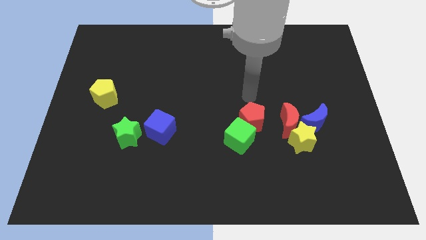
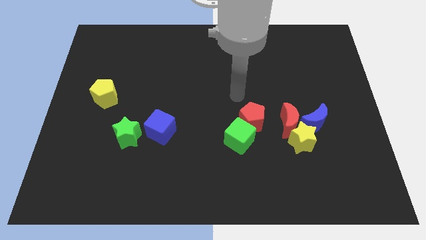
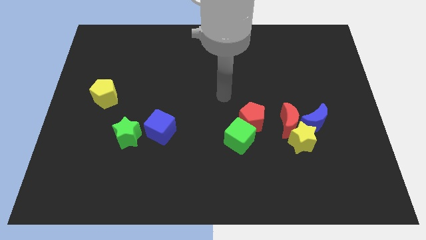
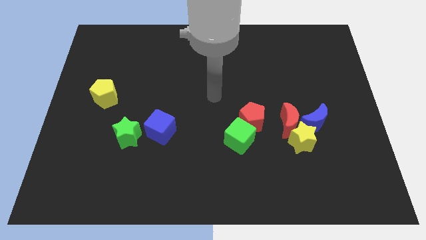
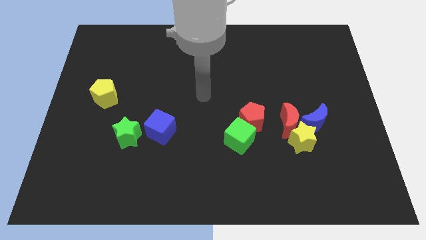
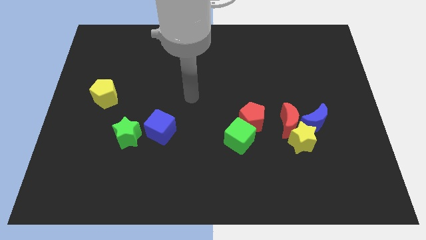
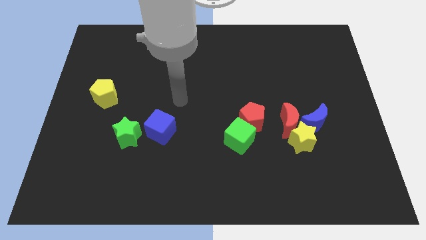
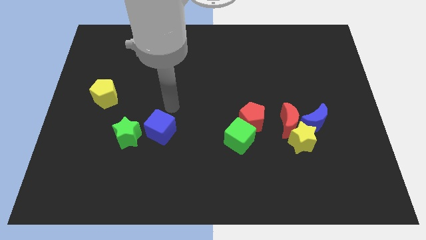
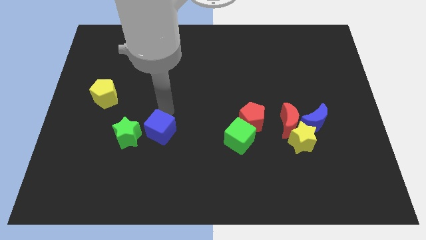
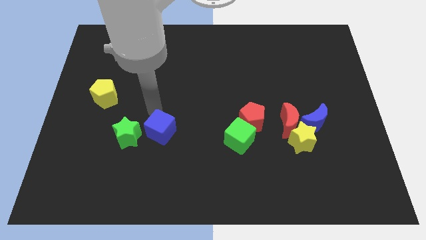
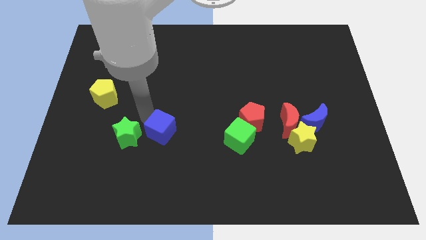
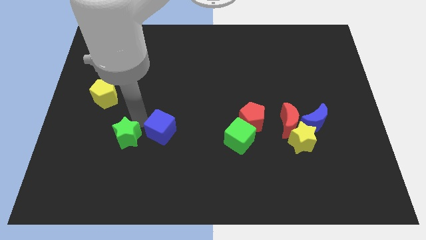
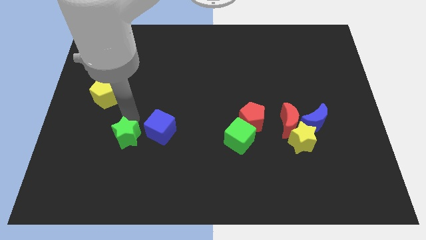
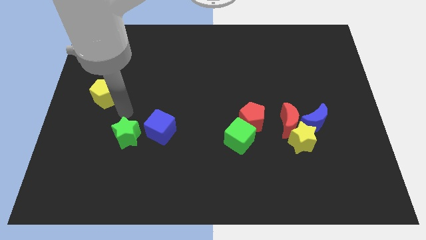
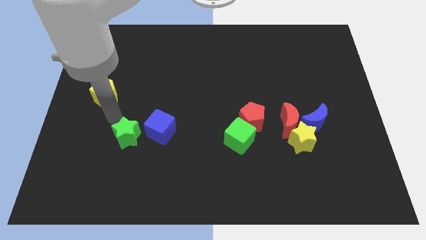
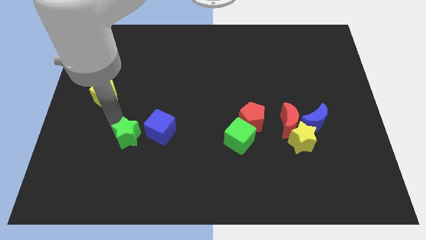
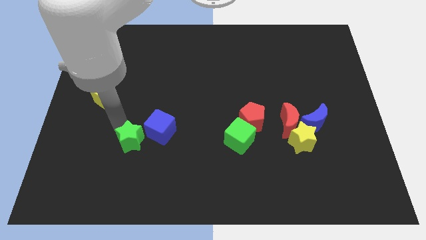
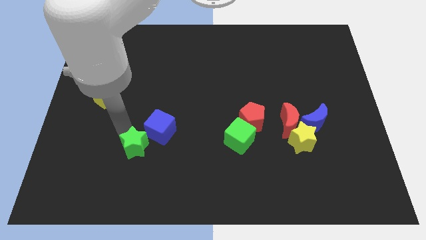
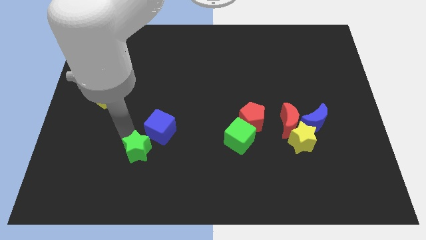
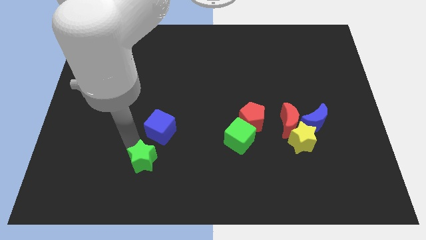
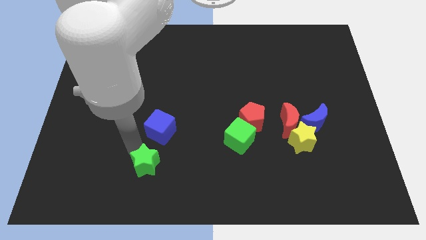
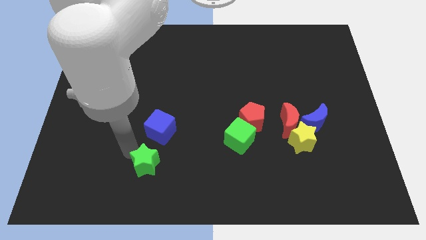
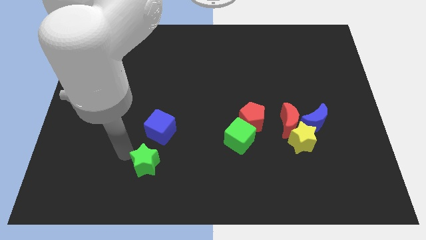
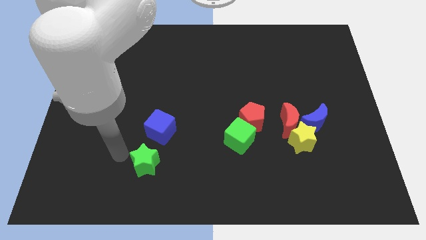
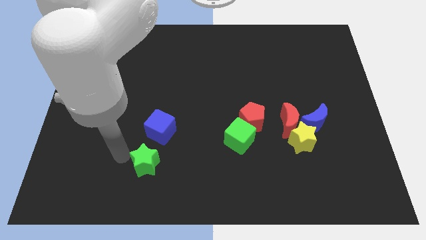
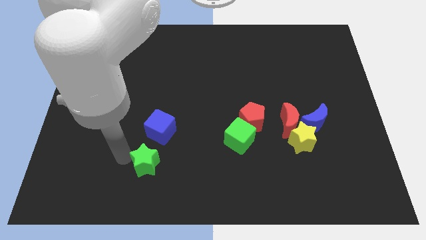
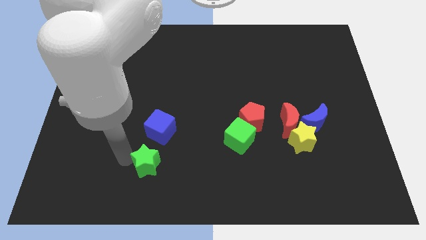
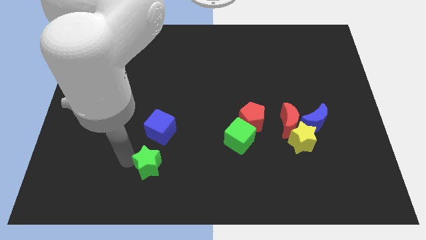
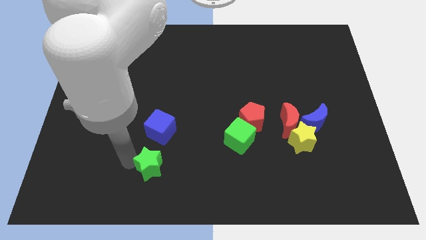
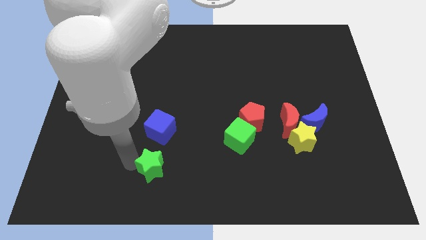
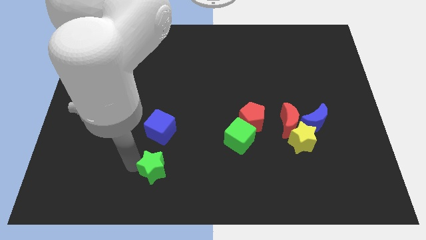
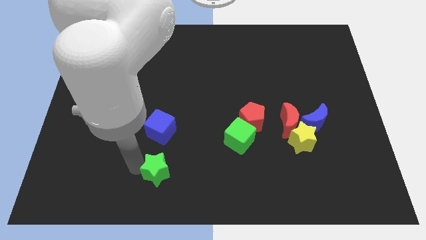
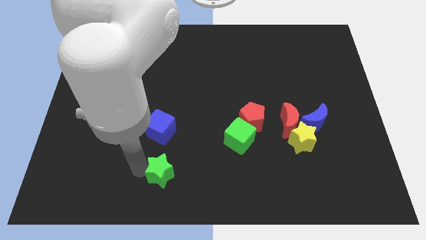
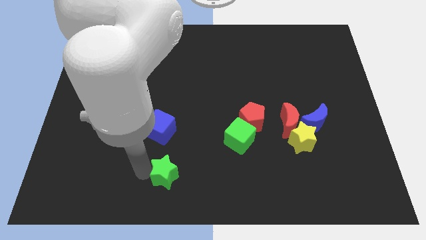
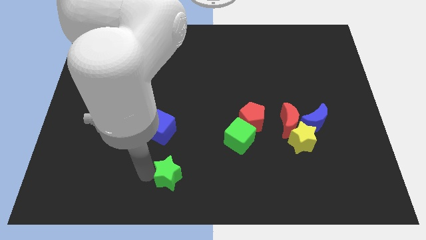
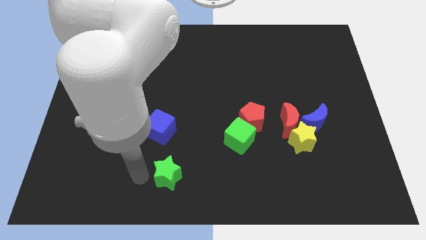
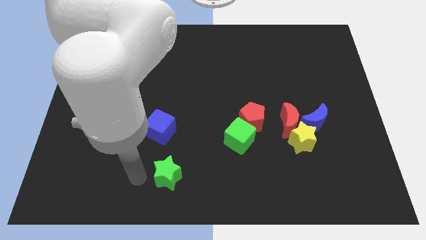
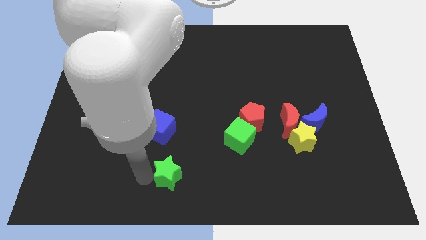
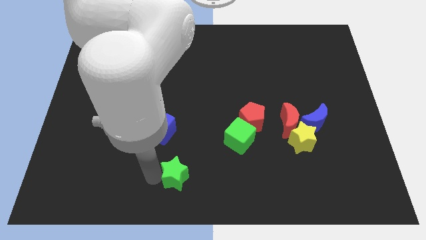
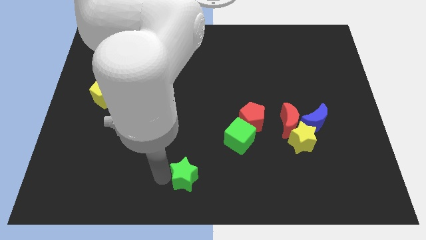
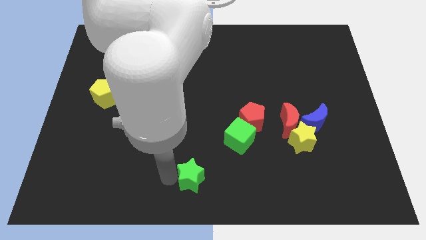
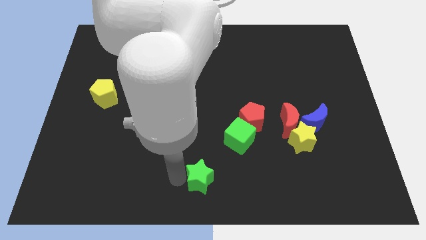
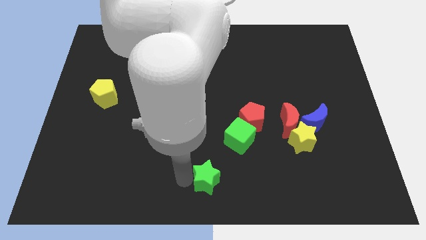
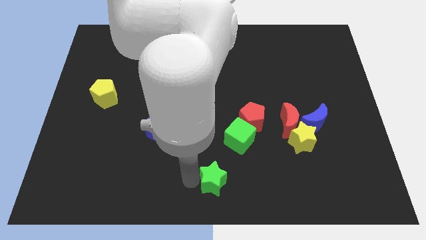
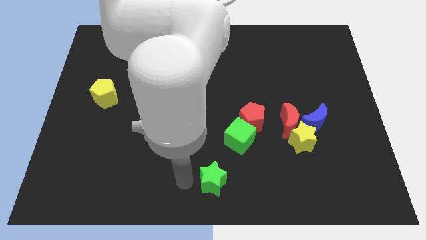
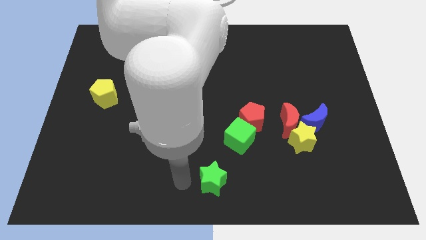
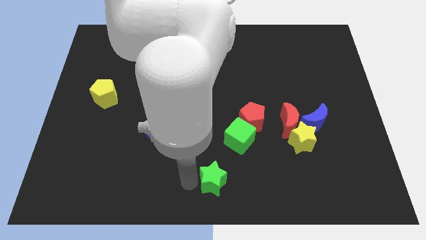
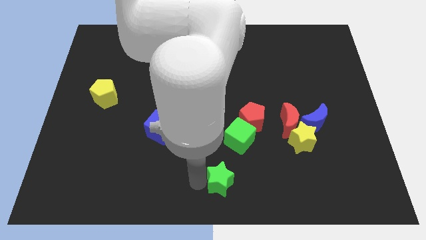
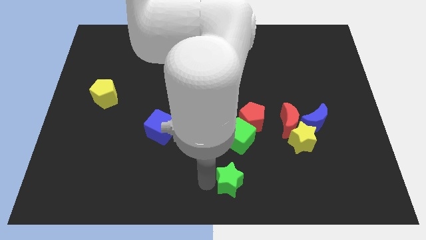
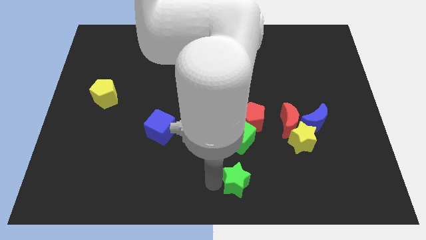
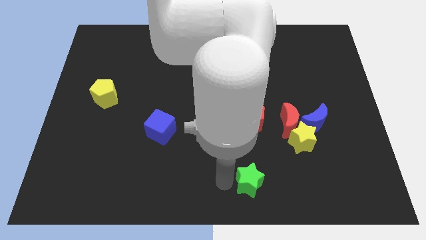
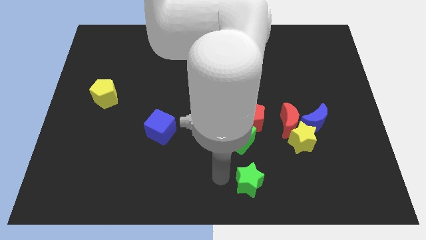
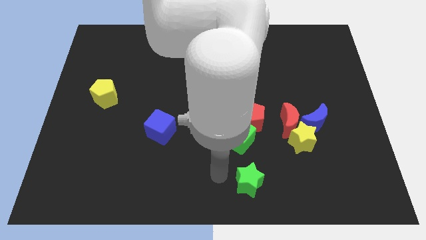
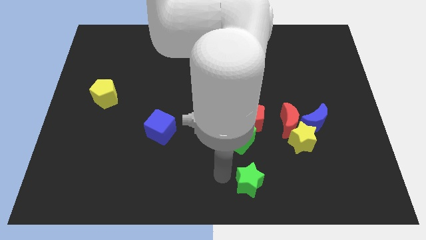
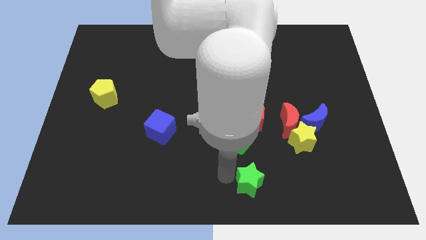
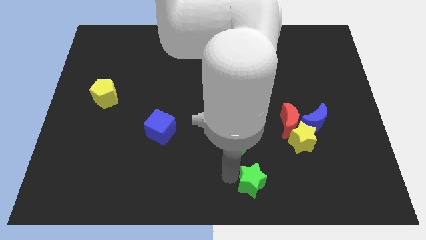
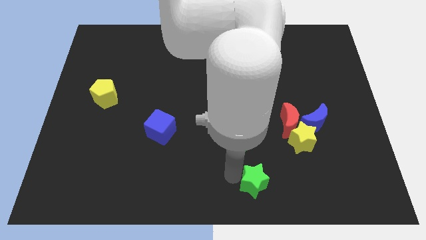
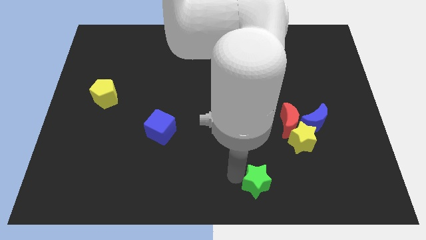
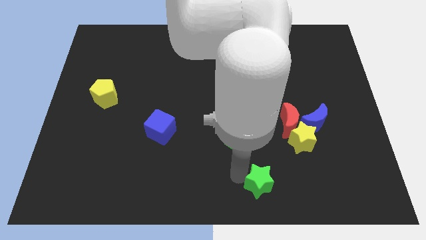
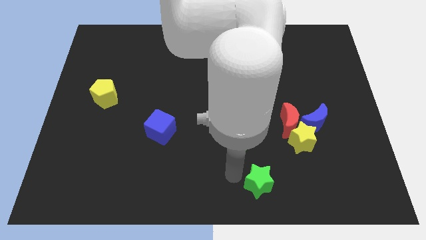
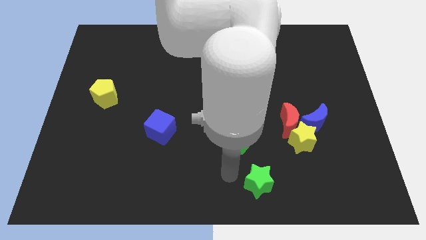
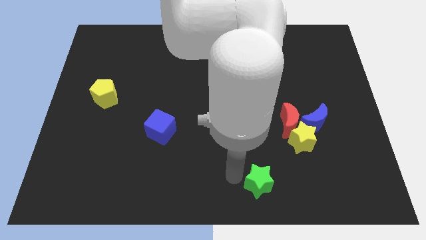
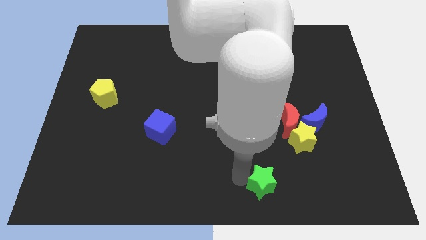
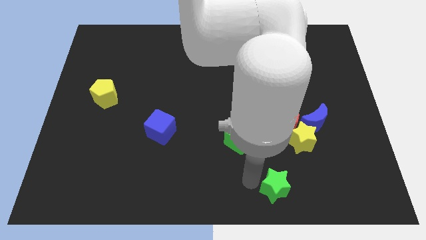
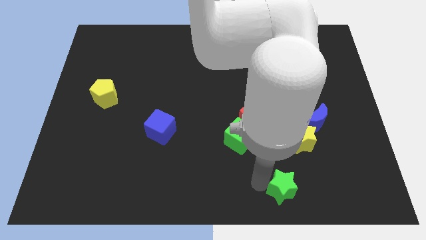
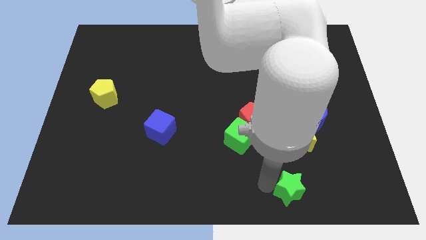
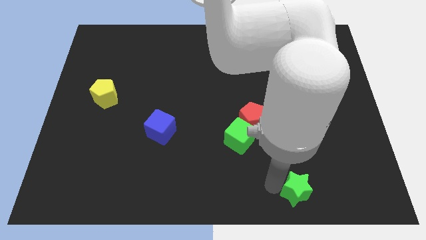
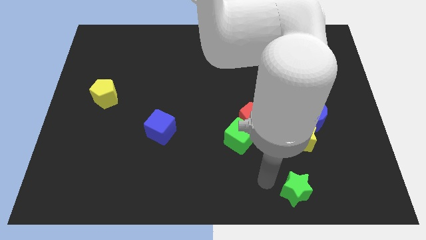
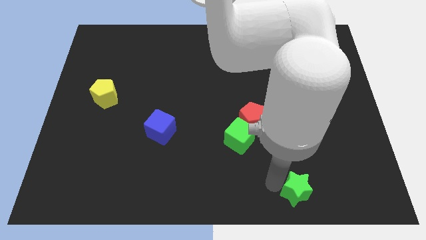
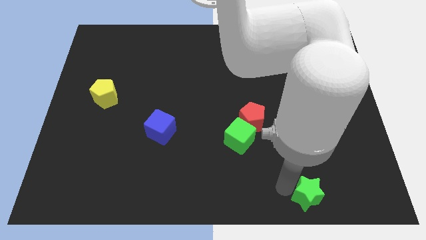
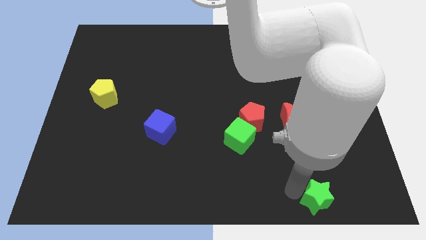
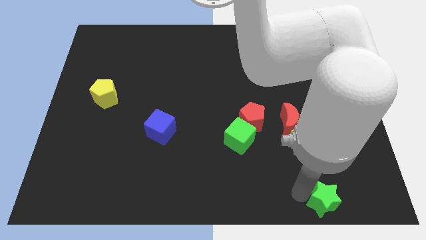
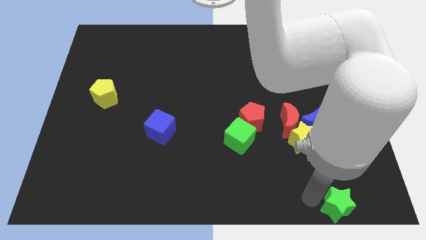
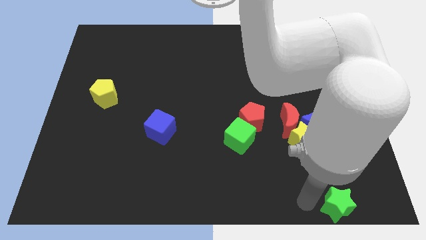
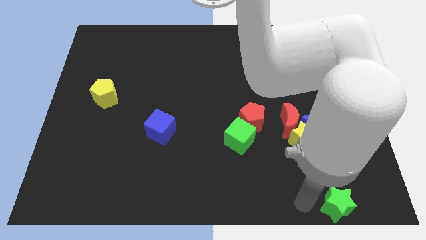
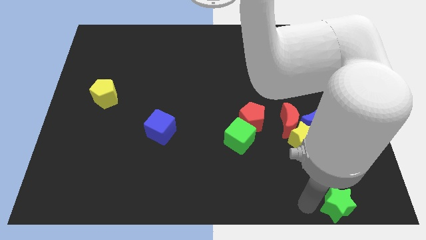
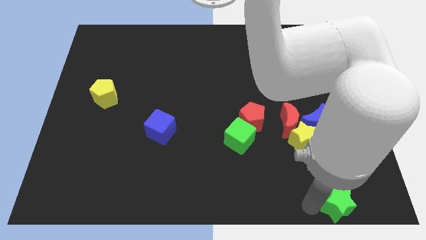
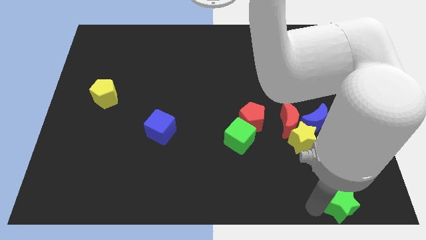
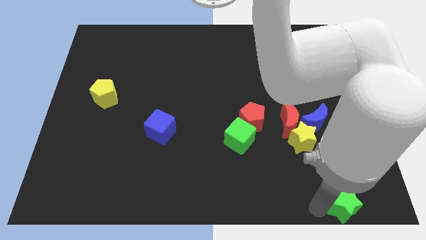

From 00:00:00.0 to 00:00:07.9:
move the green star to the bottom right of the board
